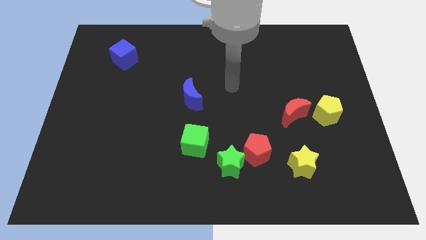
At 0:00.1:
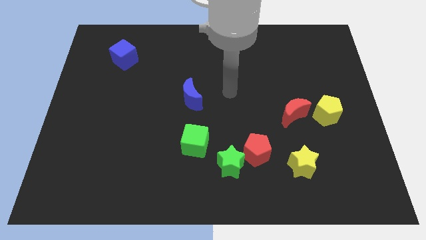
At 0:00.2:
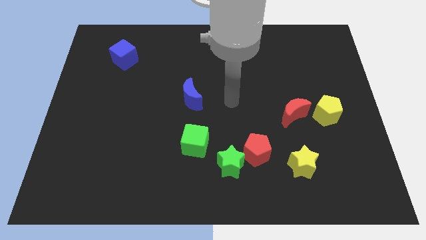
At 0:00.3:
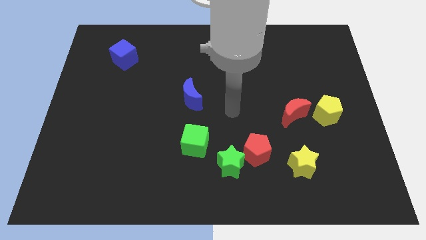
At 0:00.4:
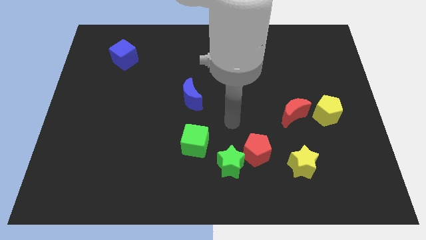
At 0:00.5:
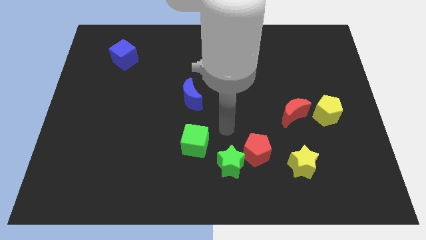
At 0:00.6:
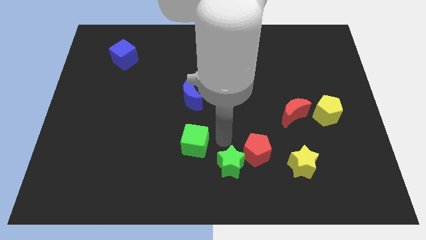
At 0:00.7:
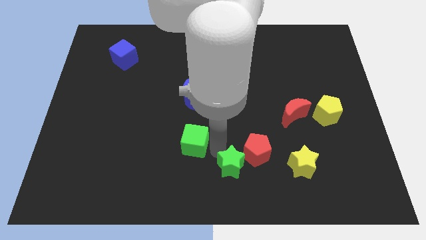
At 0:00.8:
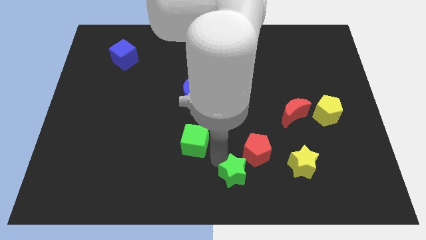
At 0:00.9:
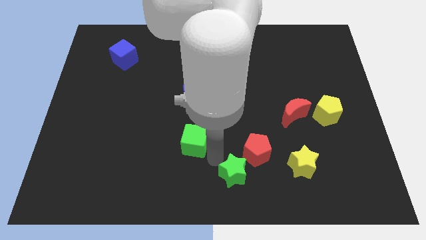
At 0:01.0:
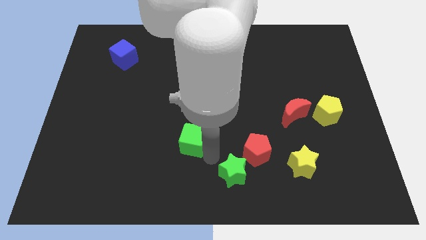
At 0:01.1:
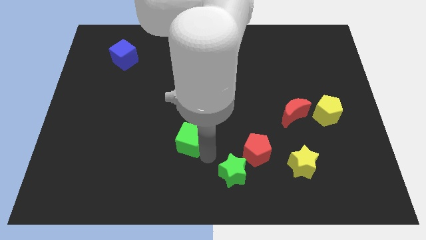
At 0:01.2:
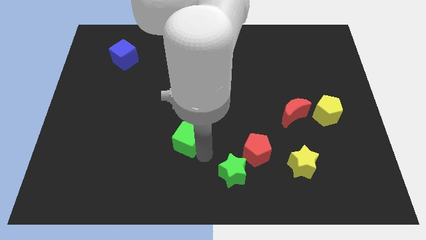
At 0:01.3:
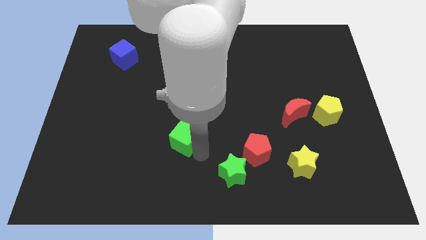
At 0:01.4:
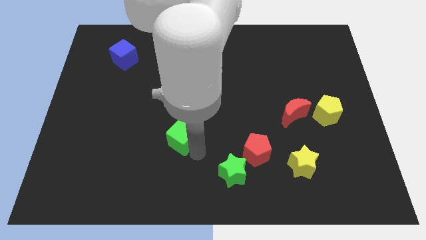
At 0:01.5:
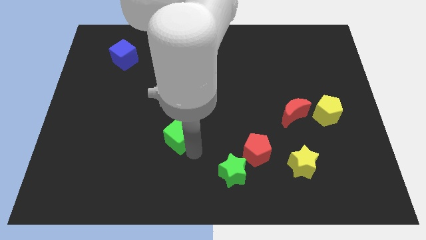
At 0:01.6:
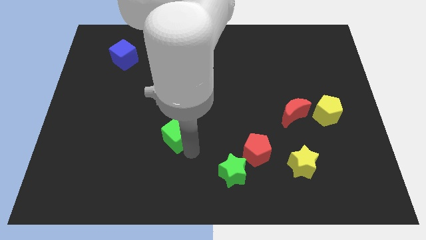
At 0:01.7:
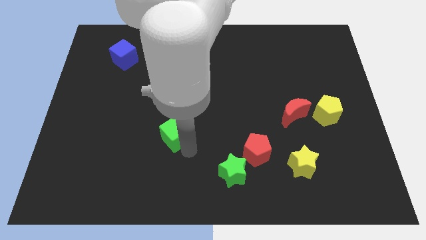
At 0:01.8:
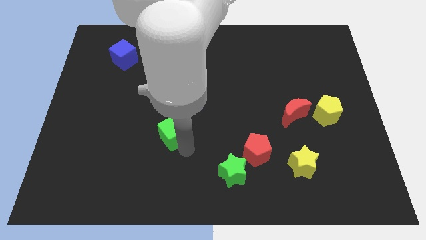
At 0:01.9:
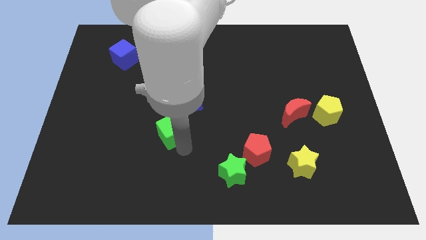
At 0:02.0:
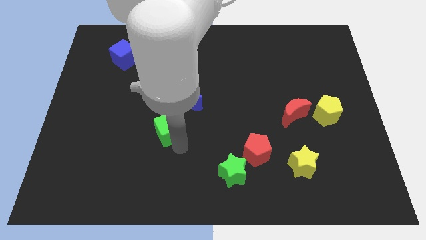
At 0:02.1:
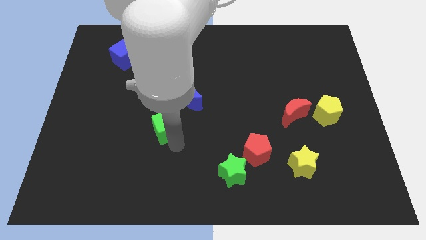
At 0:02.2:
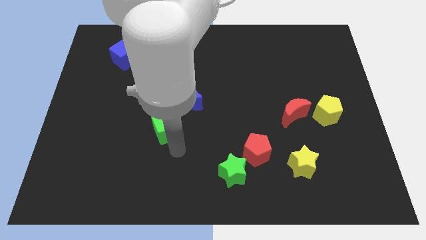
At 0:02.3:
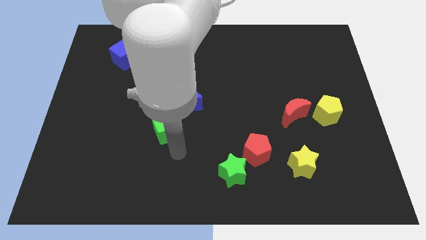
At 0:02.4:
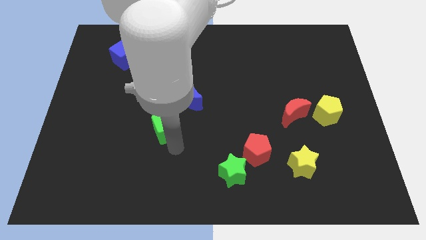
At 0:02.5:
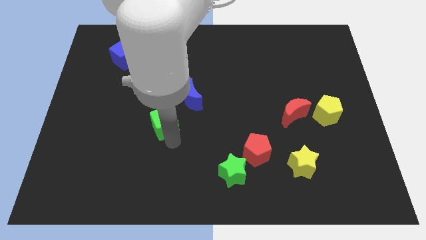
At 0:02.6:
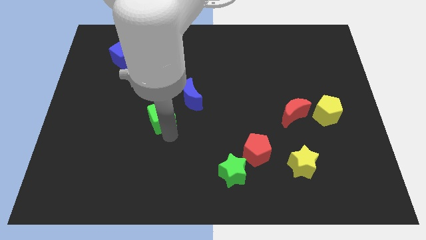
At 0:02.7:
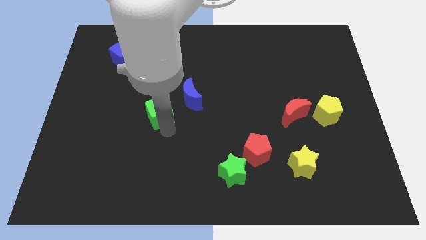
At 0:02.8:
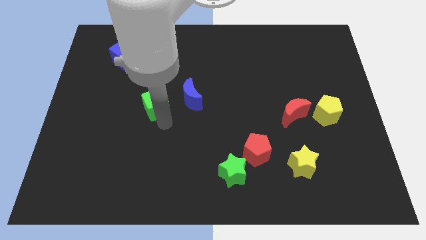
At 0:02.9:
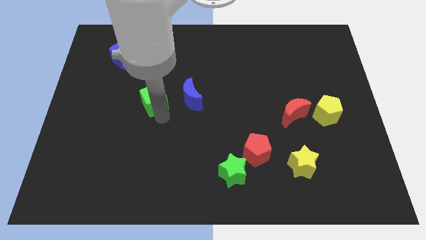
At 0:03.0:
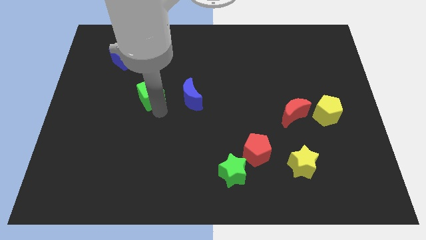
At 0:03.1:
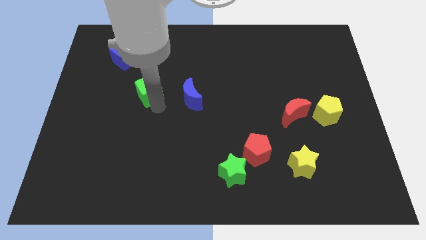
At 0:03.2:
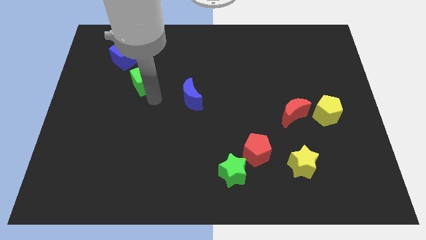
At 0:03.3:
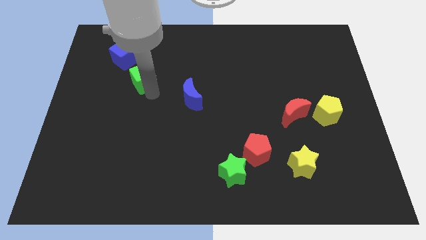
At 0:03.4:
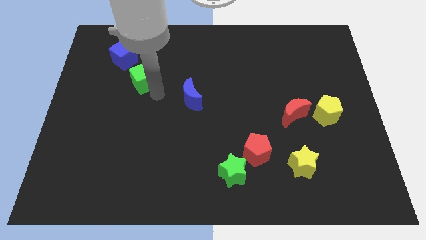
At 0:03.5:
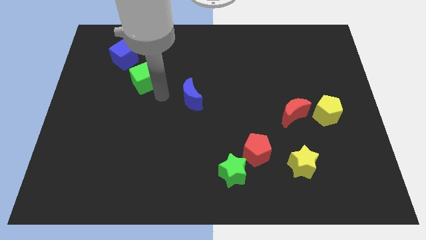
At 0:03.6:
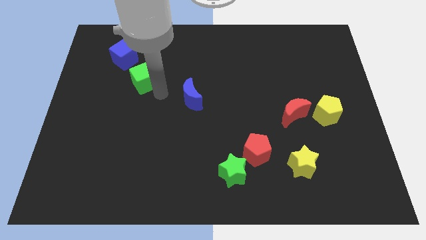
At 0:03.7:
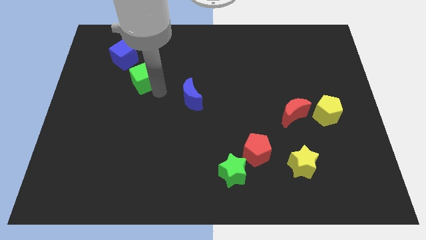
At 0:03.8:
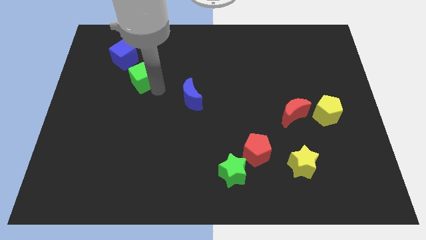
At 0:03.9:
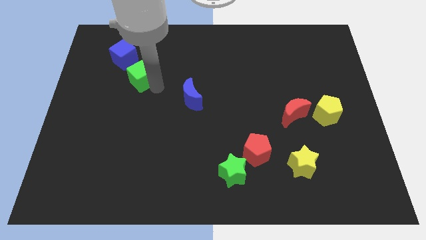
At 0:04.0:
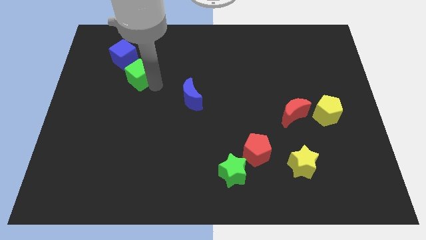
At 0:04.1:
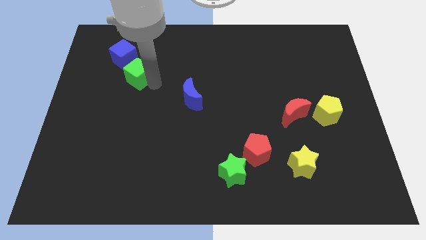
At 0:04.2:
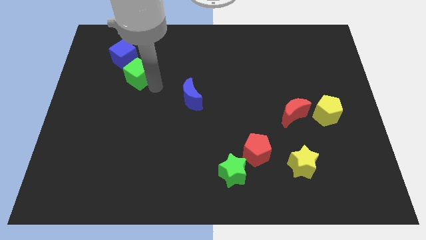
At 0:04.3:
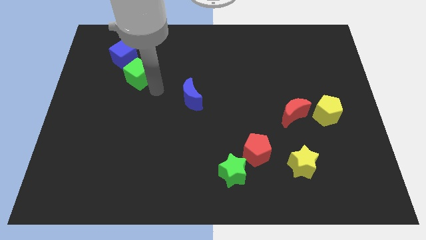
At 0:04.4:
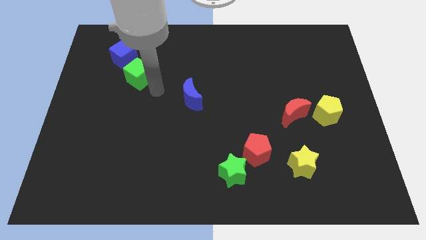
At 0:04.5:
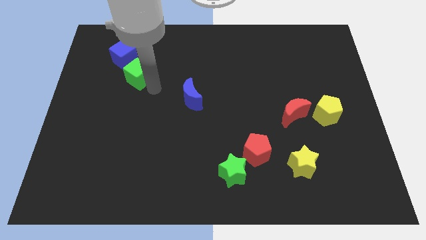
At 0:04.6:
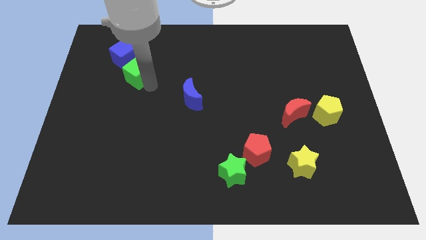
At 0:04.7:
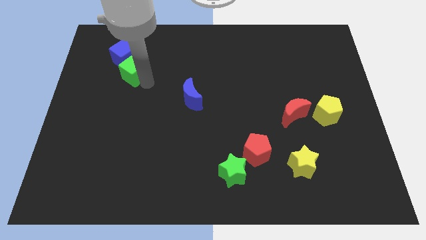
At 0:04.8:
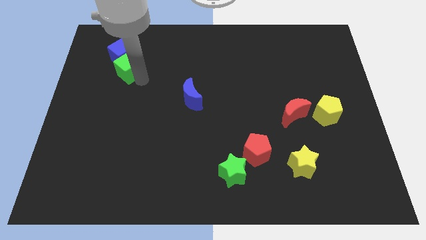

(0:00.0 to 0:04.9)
put the green cube to the blue cube

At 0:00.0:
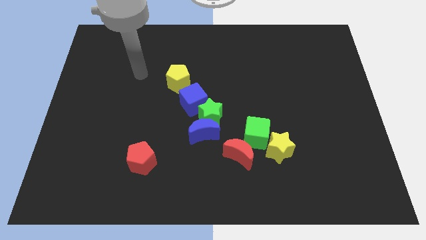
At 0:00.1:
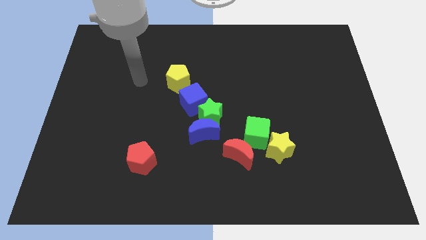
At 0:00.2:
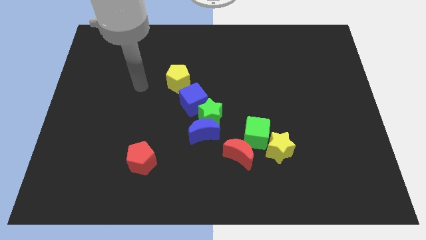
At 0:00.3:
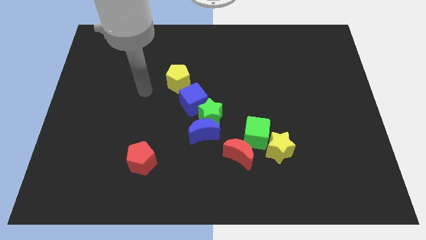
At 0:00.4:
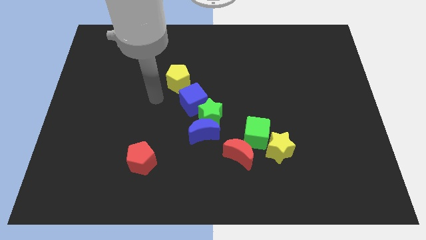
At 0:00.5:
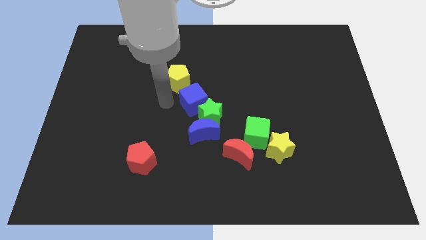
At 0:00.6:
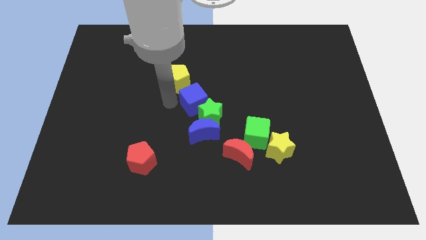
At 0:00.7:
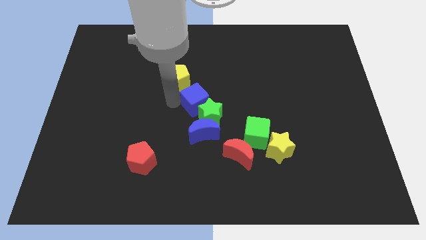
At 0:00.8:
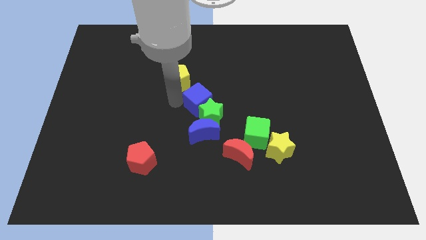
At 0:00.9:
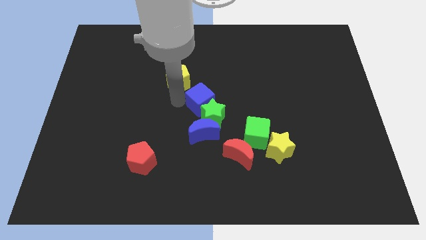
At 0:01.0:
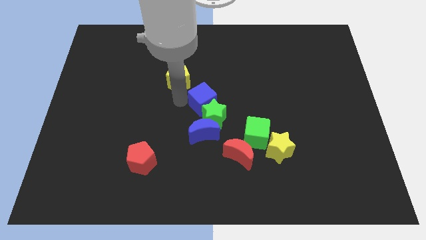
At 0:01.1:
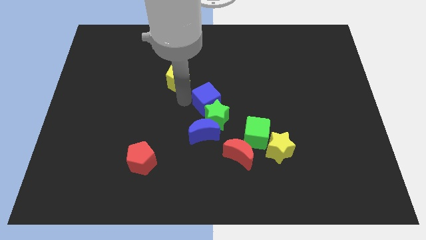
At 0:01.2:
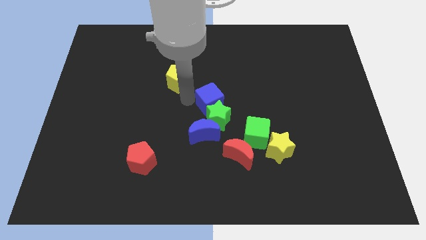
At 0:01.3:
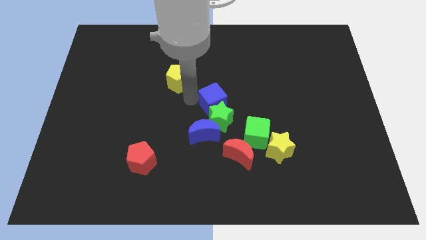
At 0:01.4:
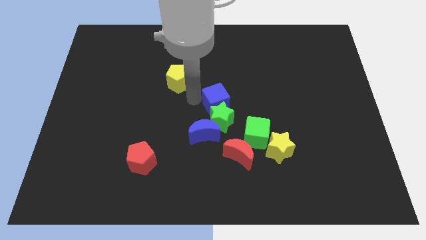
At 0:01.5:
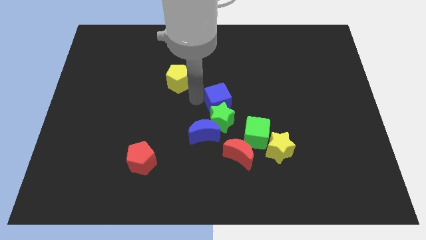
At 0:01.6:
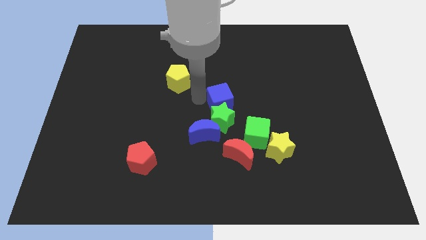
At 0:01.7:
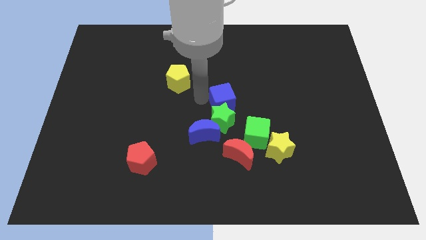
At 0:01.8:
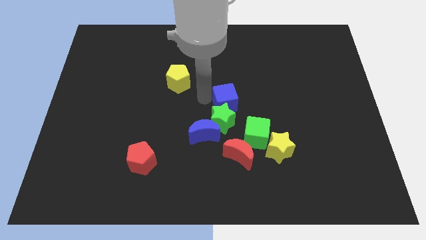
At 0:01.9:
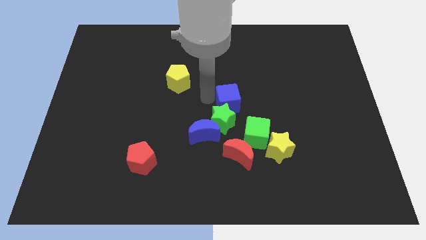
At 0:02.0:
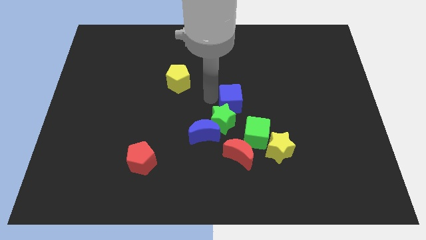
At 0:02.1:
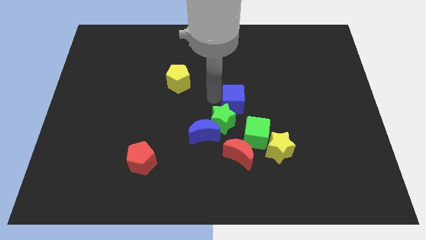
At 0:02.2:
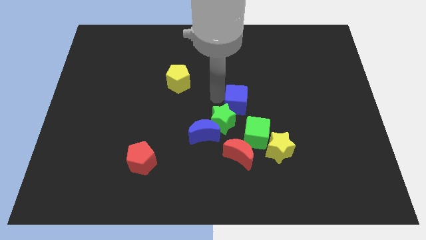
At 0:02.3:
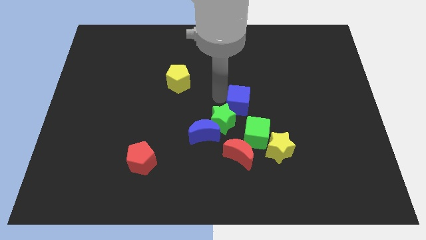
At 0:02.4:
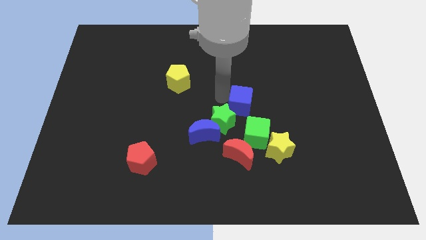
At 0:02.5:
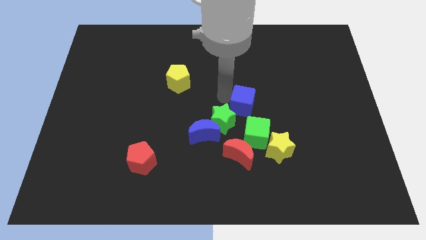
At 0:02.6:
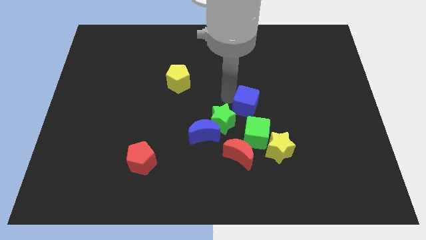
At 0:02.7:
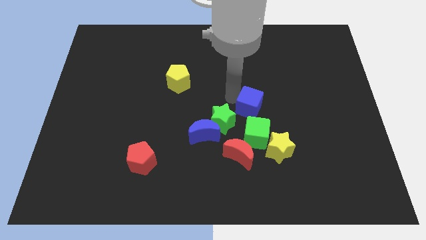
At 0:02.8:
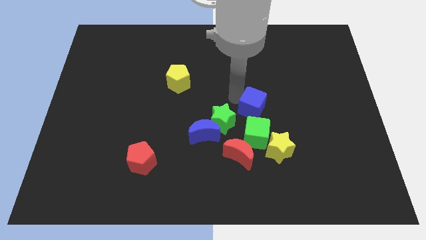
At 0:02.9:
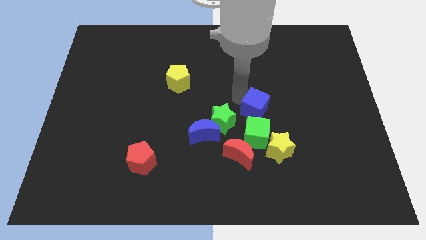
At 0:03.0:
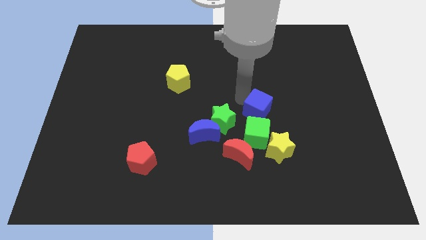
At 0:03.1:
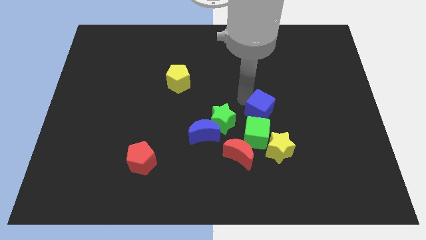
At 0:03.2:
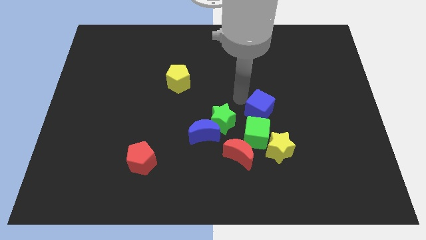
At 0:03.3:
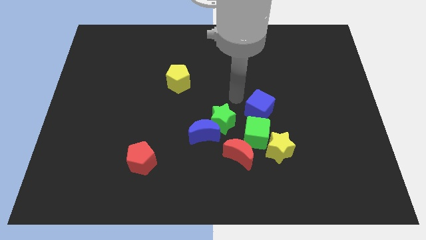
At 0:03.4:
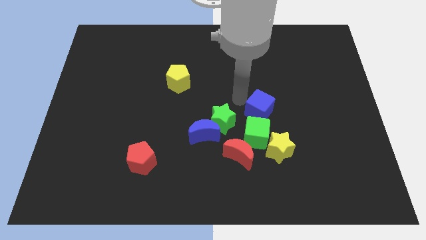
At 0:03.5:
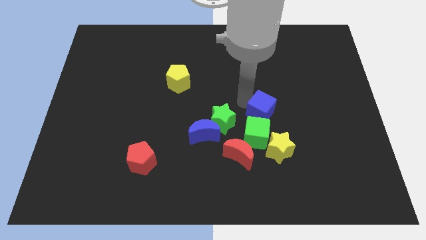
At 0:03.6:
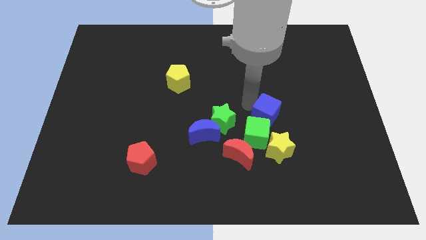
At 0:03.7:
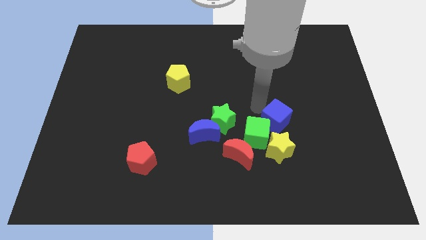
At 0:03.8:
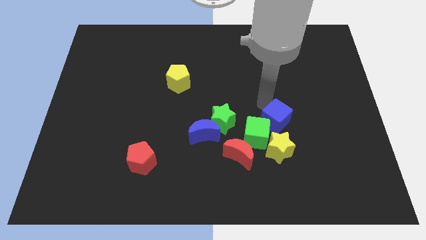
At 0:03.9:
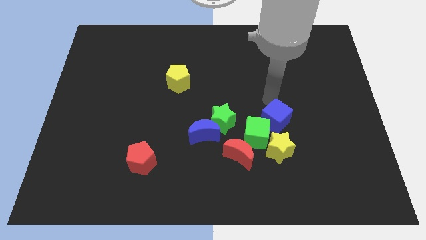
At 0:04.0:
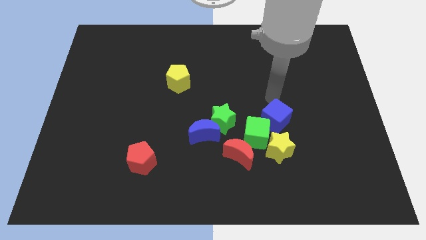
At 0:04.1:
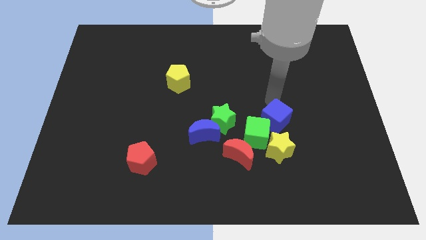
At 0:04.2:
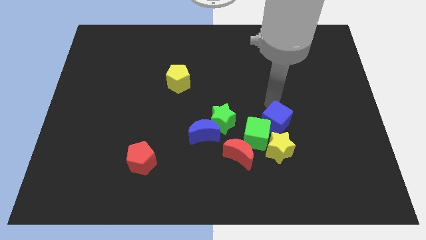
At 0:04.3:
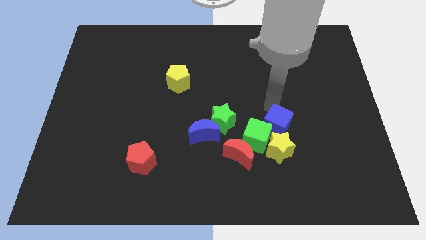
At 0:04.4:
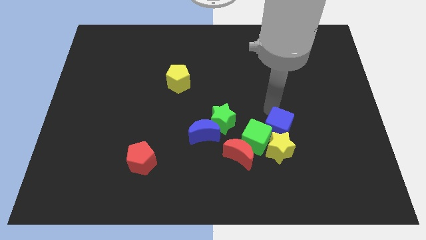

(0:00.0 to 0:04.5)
move the blue cube next to the yellow star
